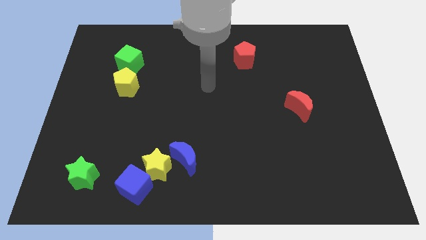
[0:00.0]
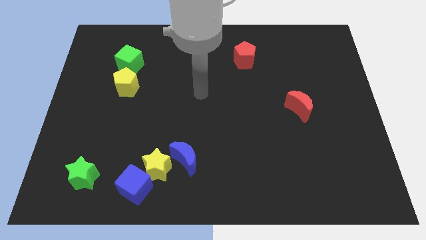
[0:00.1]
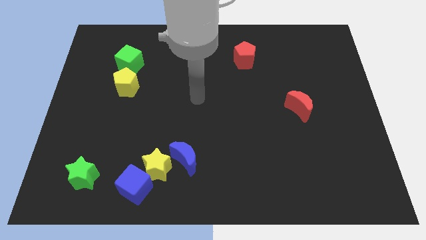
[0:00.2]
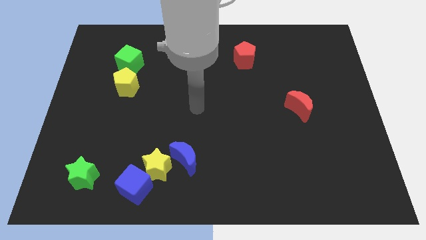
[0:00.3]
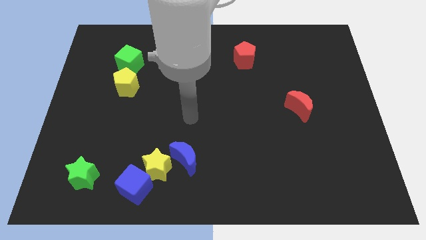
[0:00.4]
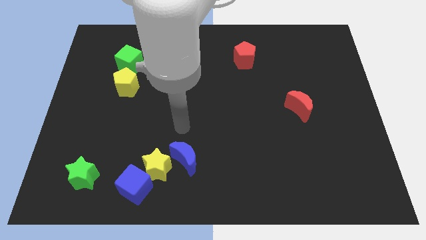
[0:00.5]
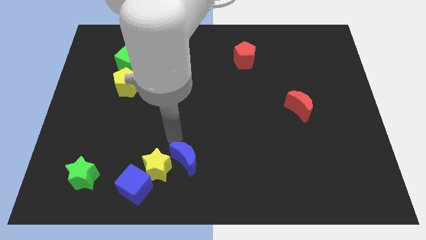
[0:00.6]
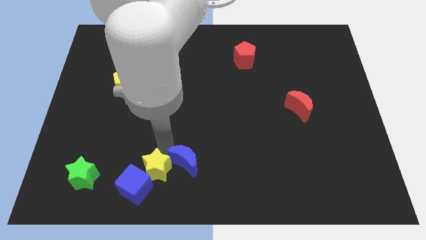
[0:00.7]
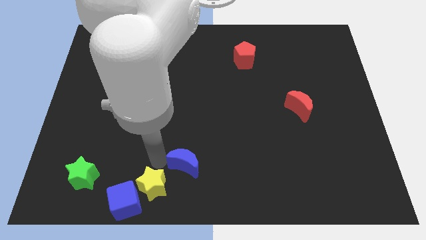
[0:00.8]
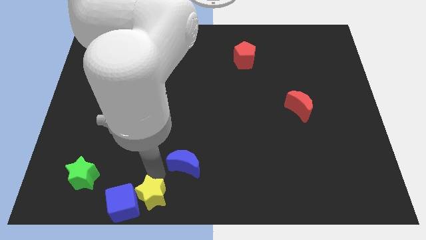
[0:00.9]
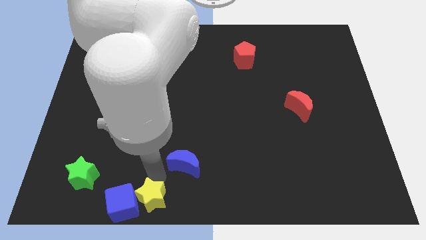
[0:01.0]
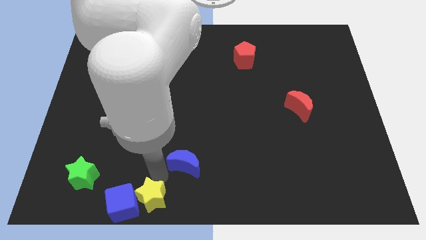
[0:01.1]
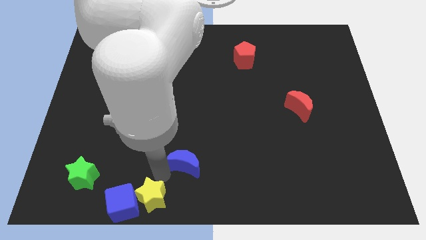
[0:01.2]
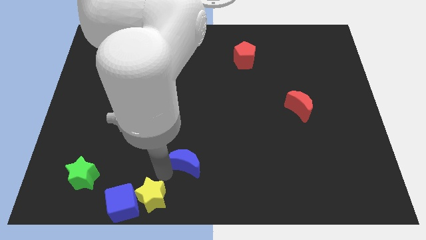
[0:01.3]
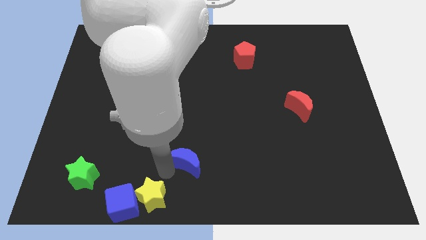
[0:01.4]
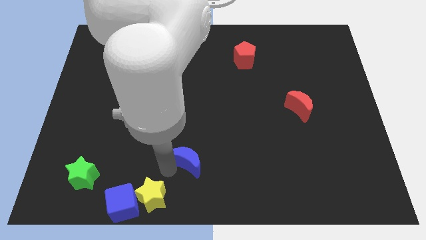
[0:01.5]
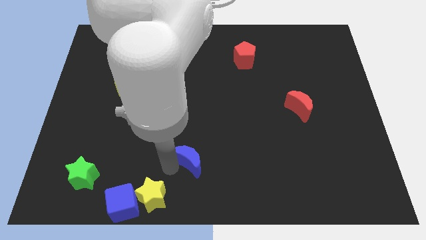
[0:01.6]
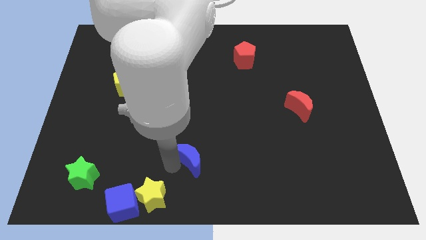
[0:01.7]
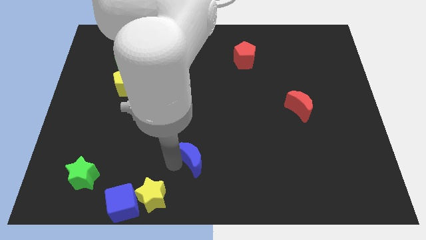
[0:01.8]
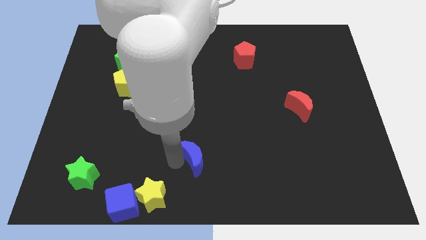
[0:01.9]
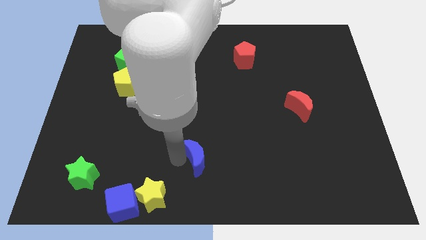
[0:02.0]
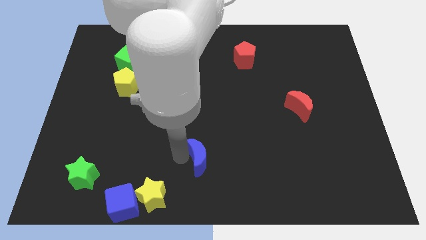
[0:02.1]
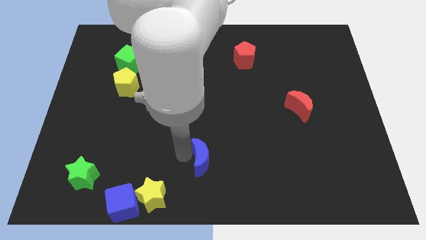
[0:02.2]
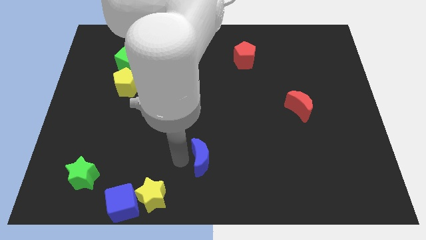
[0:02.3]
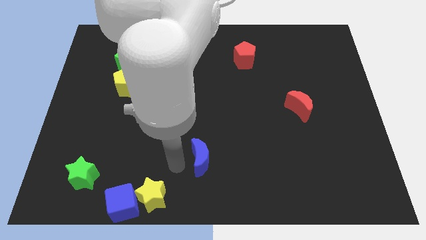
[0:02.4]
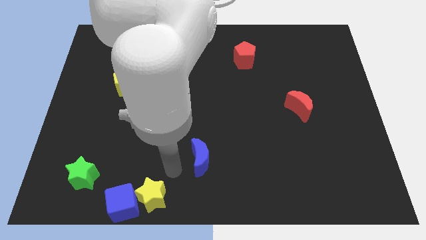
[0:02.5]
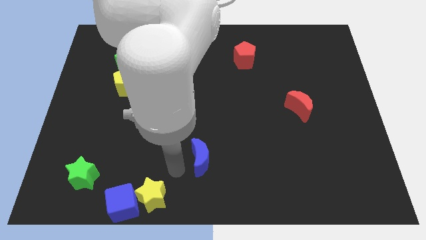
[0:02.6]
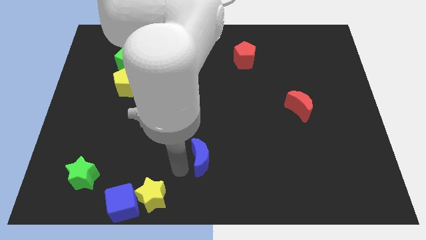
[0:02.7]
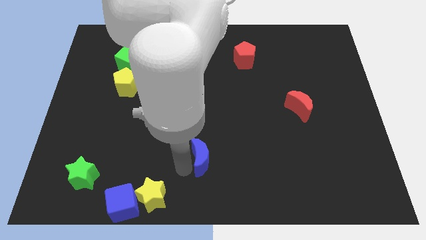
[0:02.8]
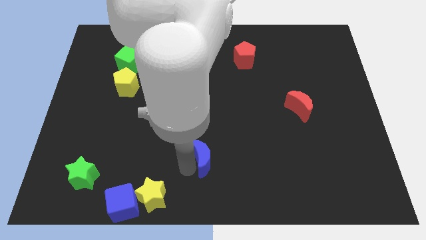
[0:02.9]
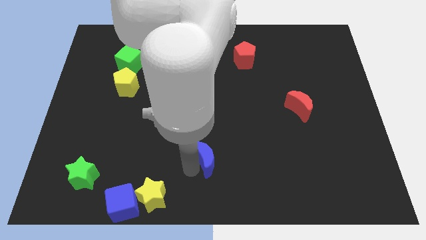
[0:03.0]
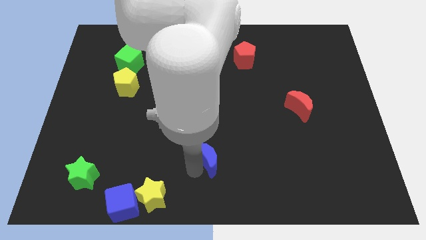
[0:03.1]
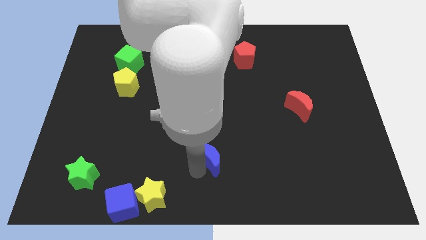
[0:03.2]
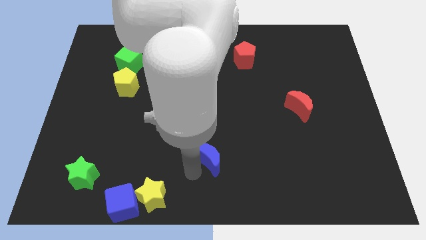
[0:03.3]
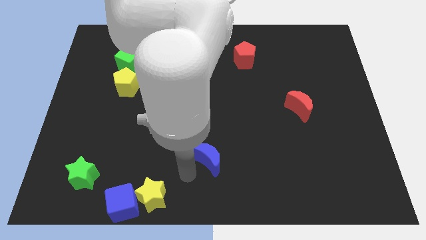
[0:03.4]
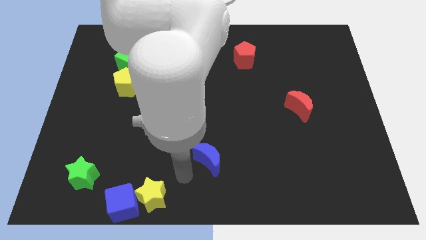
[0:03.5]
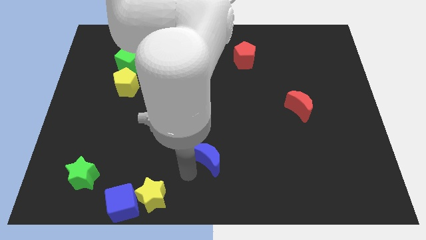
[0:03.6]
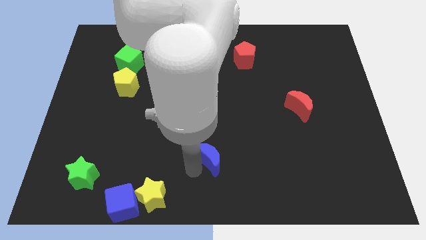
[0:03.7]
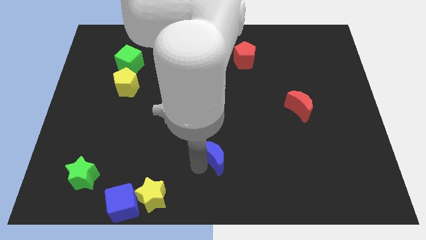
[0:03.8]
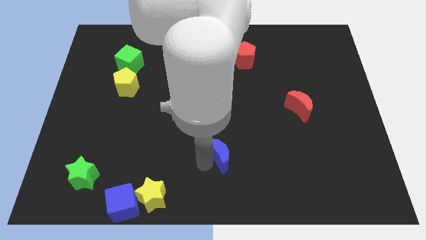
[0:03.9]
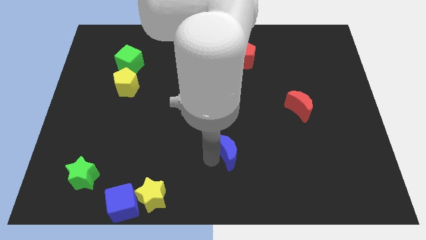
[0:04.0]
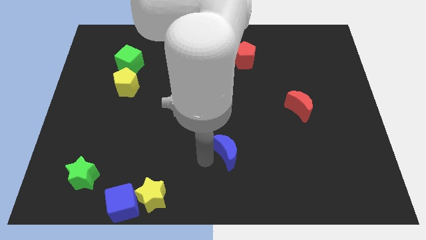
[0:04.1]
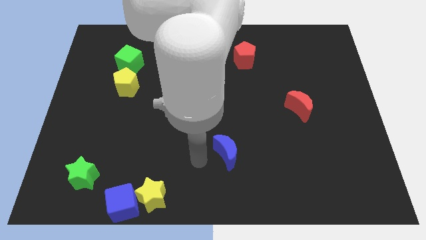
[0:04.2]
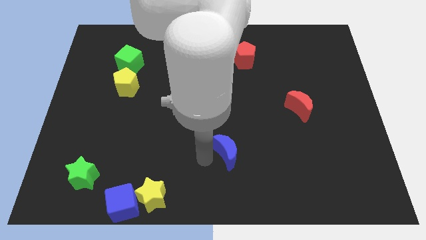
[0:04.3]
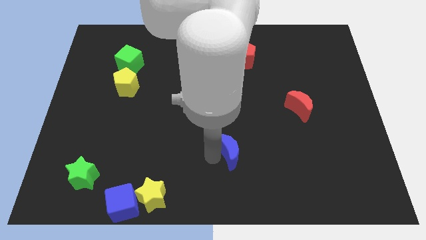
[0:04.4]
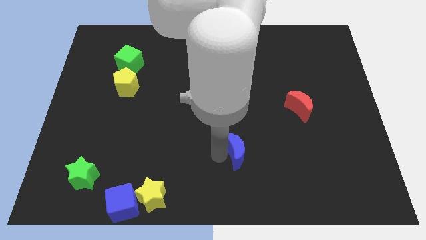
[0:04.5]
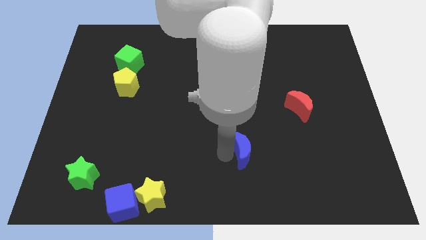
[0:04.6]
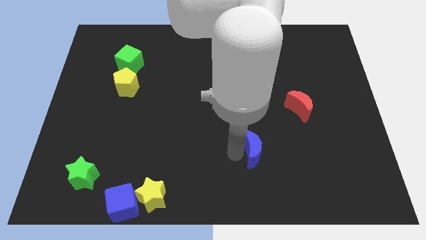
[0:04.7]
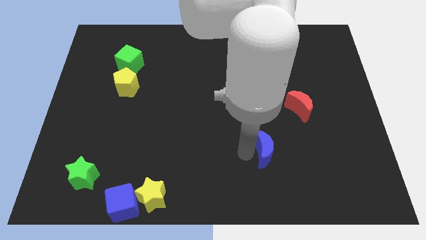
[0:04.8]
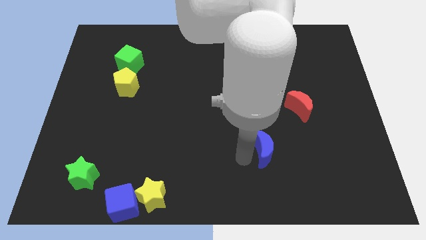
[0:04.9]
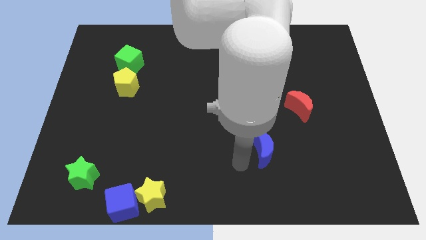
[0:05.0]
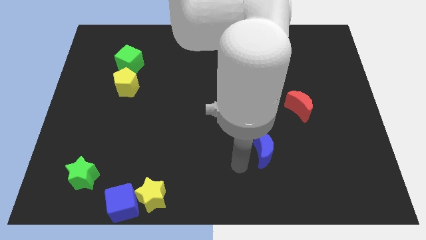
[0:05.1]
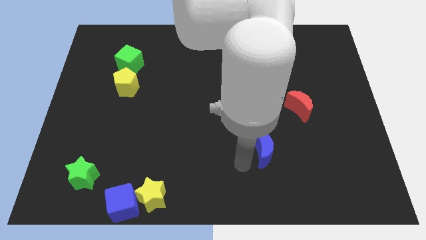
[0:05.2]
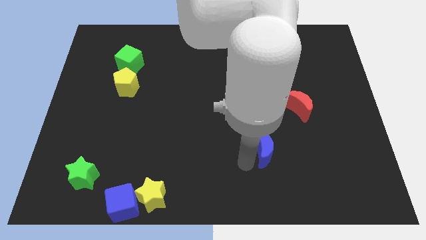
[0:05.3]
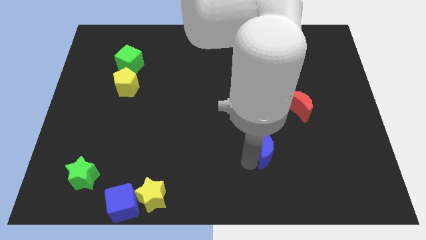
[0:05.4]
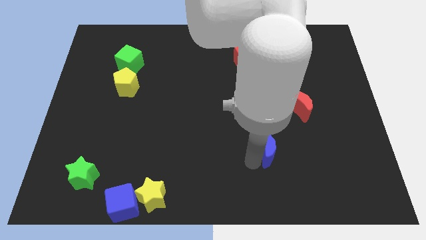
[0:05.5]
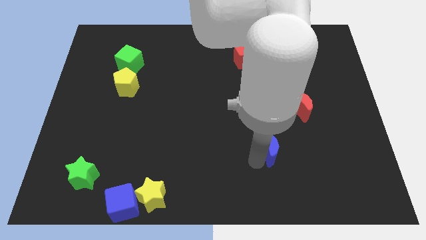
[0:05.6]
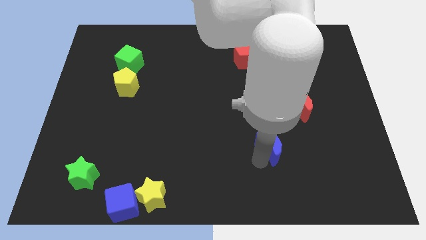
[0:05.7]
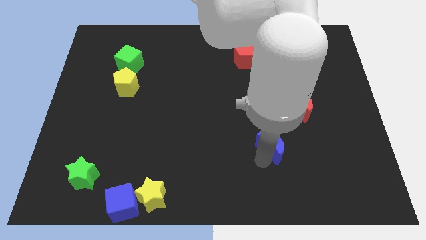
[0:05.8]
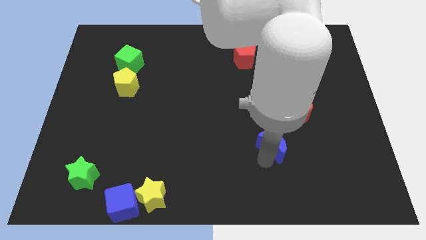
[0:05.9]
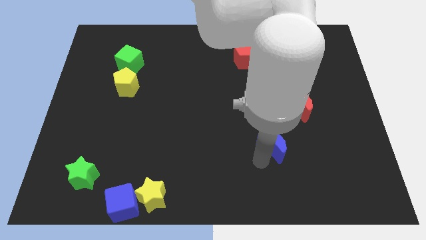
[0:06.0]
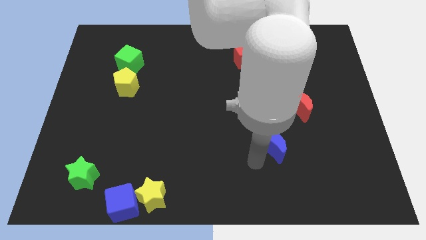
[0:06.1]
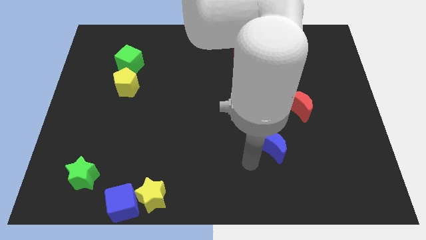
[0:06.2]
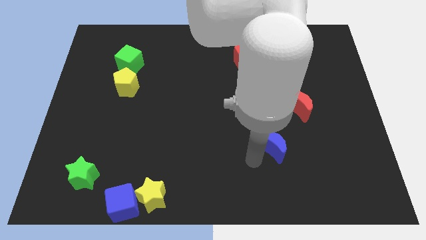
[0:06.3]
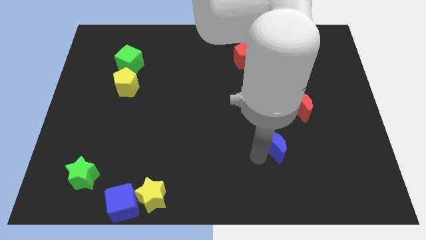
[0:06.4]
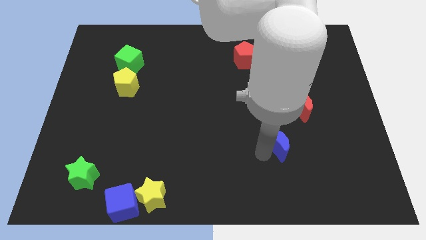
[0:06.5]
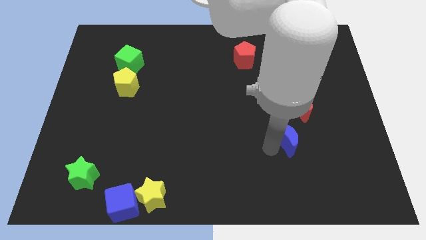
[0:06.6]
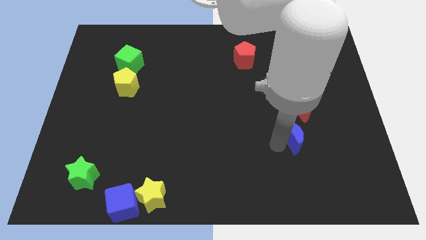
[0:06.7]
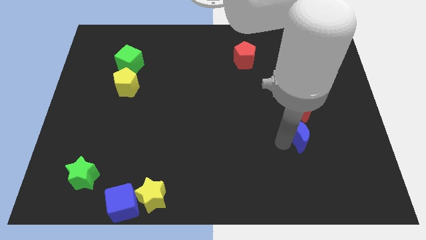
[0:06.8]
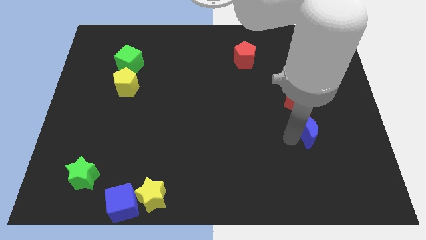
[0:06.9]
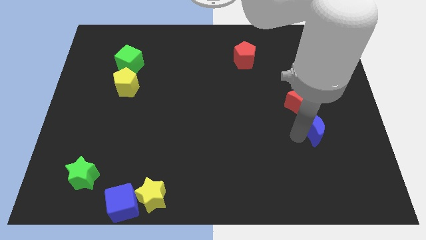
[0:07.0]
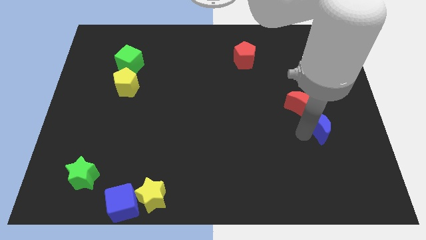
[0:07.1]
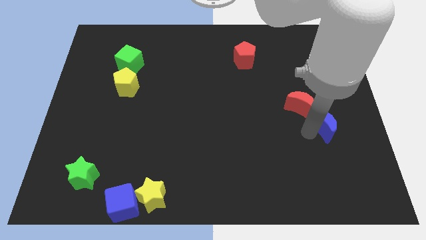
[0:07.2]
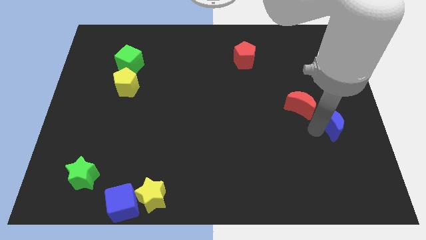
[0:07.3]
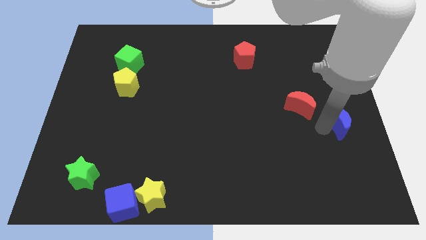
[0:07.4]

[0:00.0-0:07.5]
slide the blue moon to the right side
